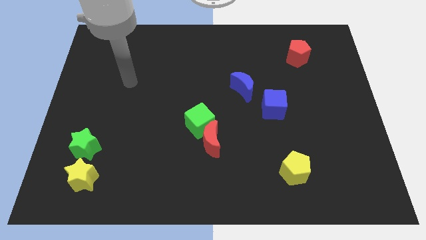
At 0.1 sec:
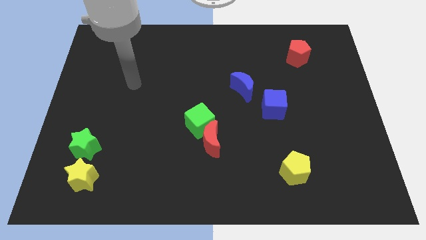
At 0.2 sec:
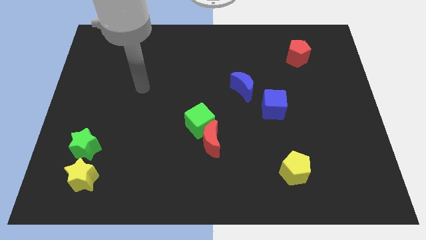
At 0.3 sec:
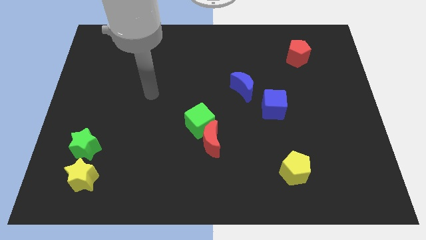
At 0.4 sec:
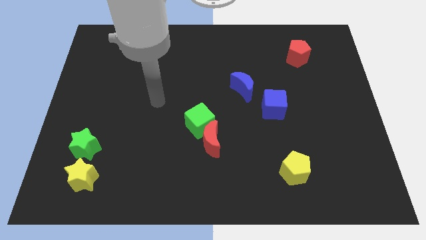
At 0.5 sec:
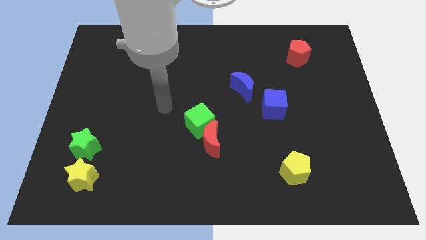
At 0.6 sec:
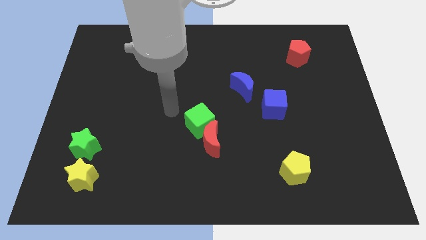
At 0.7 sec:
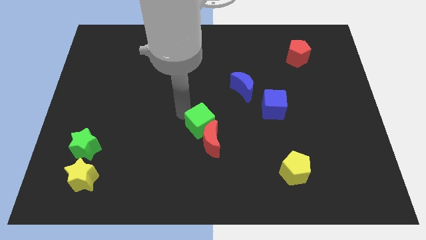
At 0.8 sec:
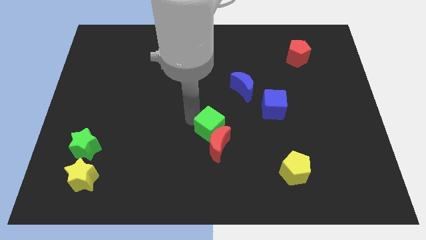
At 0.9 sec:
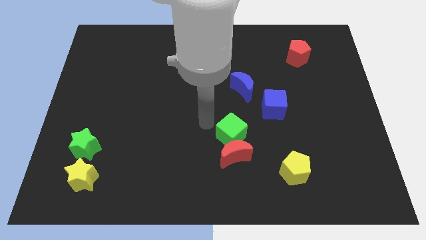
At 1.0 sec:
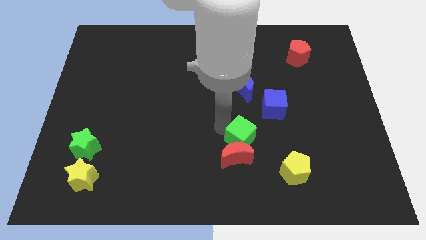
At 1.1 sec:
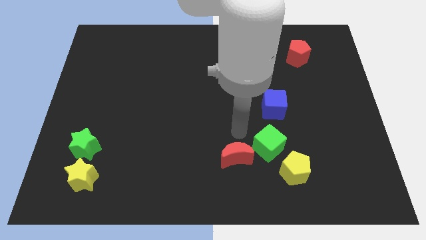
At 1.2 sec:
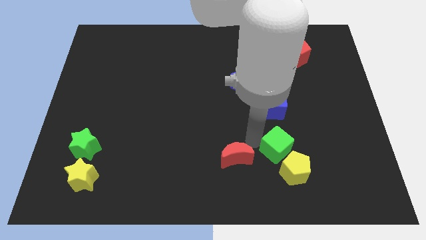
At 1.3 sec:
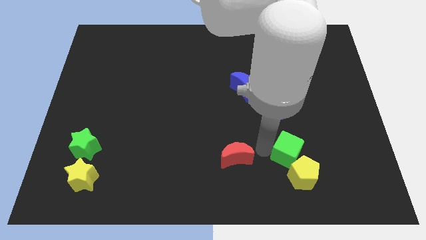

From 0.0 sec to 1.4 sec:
separate the red moon from the green cube

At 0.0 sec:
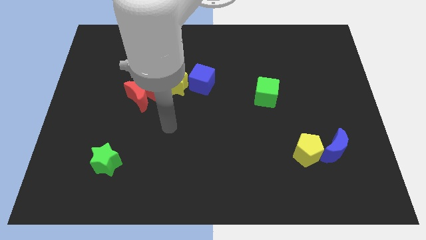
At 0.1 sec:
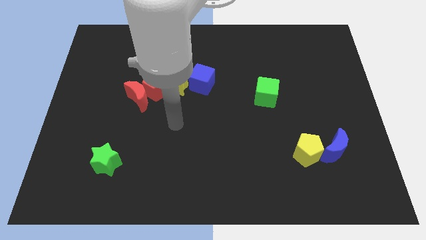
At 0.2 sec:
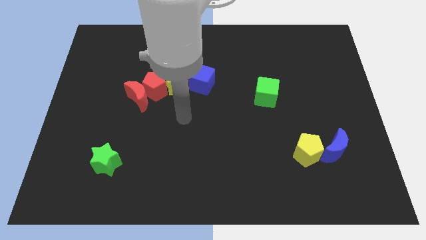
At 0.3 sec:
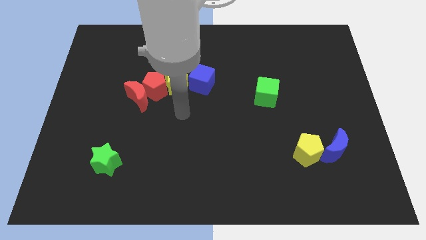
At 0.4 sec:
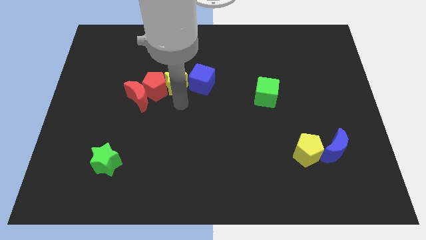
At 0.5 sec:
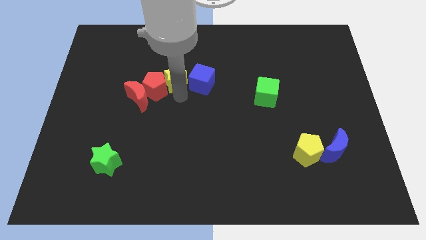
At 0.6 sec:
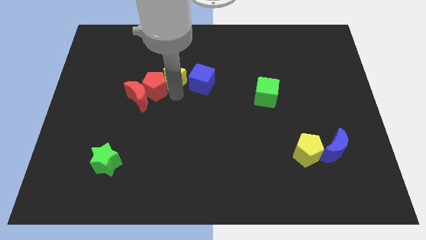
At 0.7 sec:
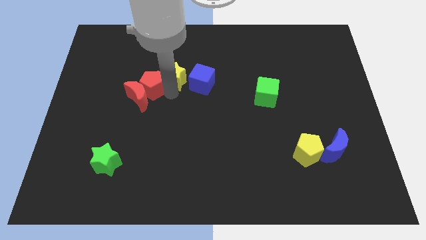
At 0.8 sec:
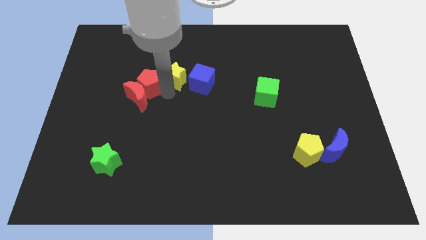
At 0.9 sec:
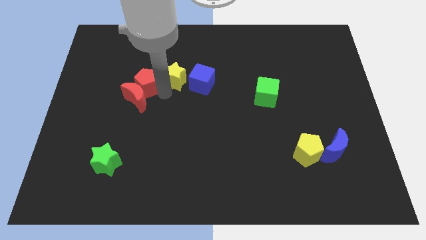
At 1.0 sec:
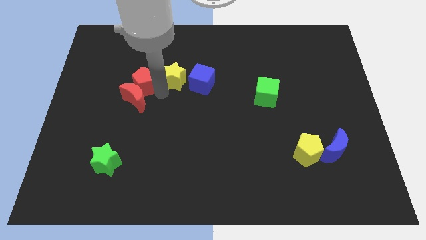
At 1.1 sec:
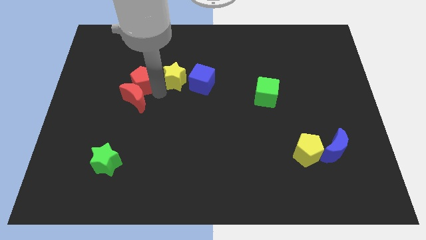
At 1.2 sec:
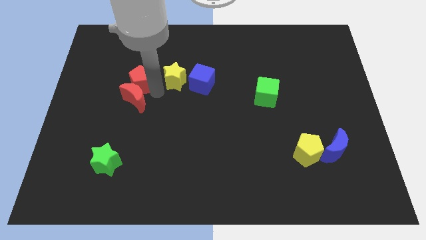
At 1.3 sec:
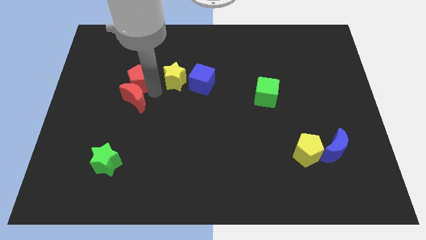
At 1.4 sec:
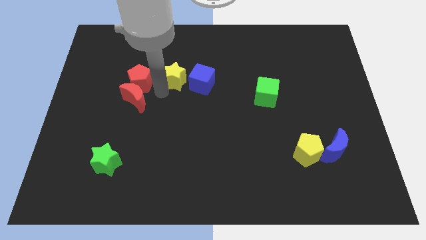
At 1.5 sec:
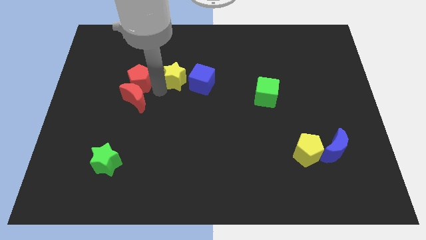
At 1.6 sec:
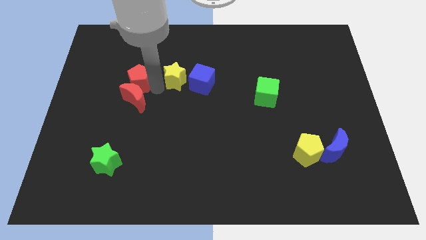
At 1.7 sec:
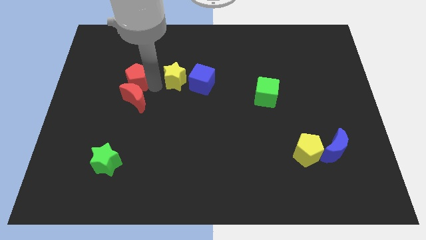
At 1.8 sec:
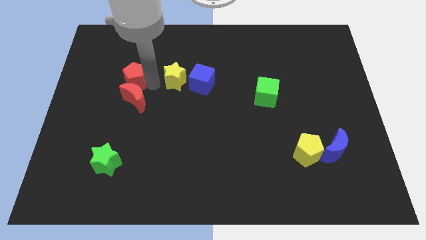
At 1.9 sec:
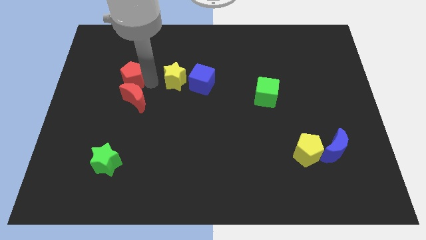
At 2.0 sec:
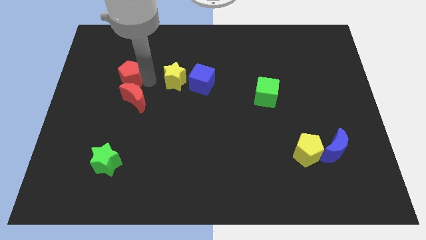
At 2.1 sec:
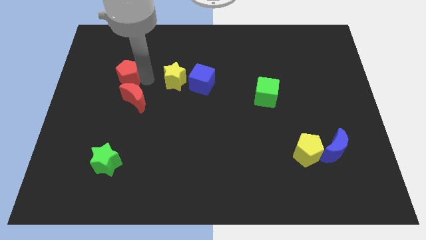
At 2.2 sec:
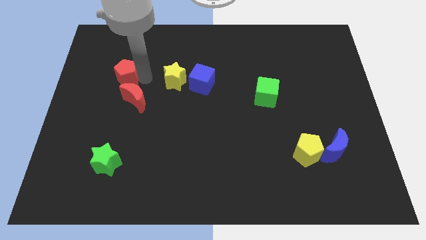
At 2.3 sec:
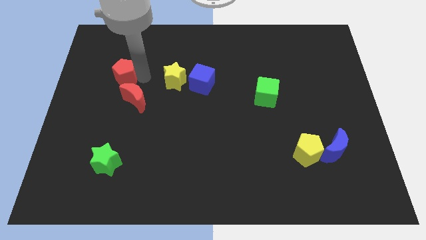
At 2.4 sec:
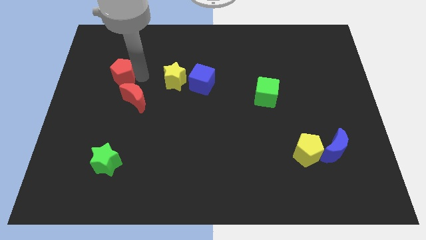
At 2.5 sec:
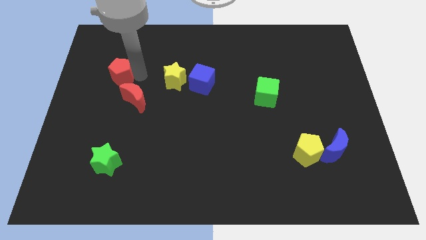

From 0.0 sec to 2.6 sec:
pull the red pentagon apart from the red moon and yellow star

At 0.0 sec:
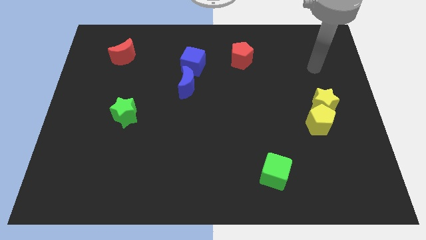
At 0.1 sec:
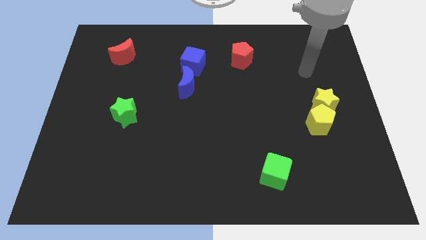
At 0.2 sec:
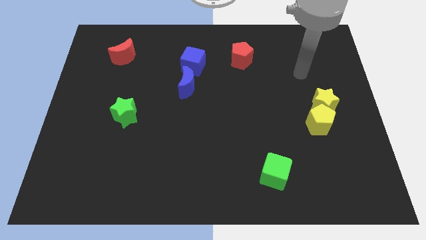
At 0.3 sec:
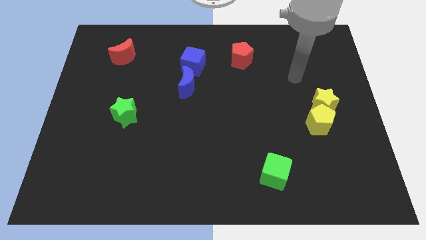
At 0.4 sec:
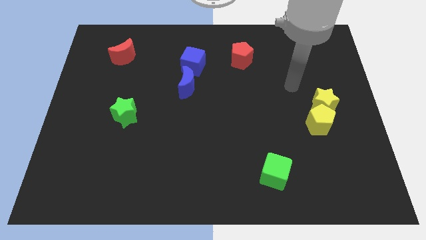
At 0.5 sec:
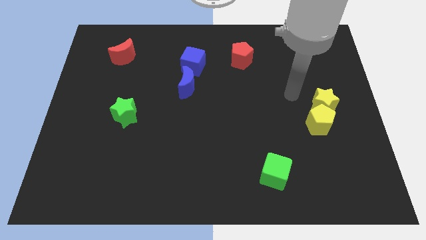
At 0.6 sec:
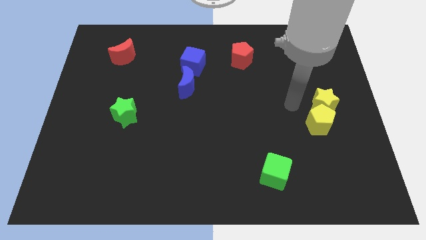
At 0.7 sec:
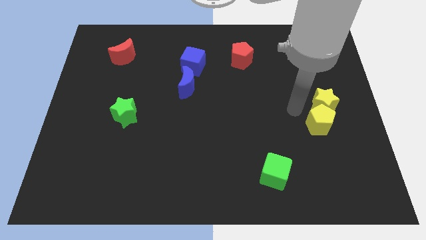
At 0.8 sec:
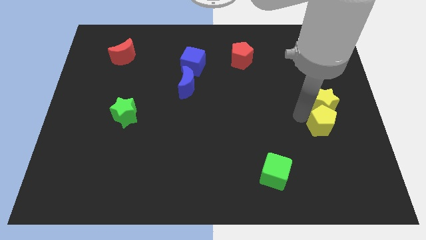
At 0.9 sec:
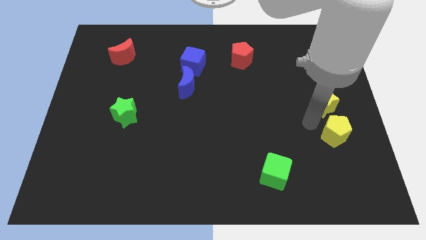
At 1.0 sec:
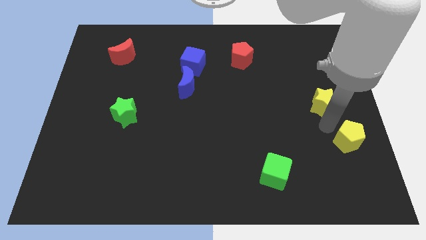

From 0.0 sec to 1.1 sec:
separate the yellow star from the yellow pentagon

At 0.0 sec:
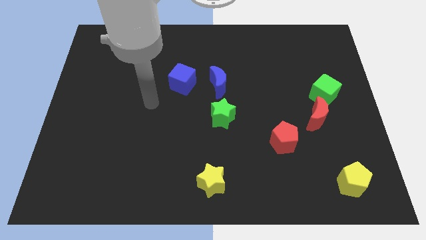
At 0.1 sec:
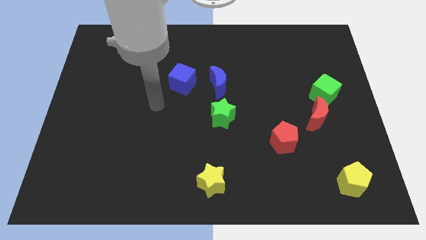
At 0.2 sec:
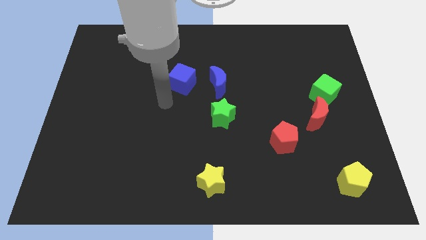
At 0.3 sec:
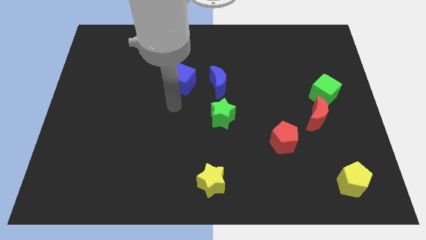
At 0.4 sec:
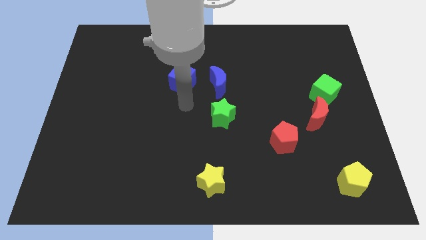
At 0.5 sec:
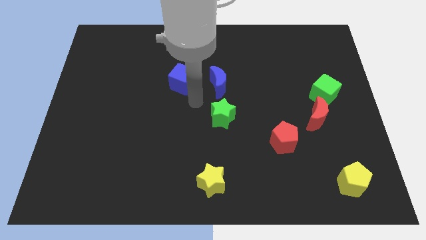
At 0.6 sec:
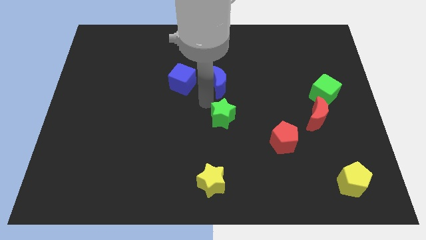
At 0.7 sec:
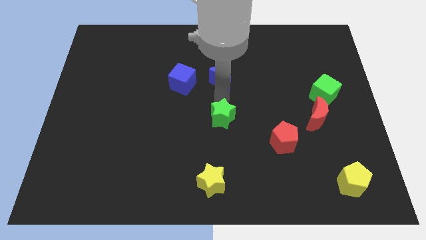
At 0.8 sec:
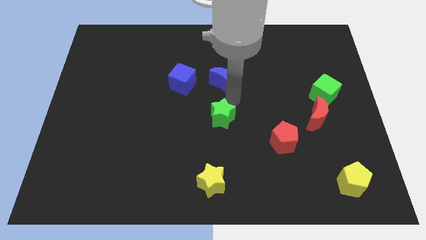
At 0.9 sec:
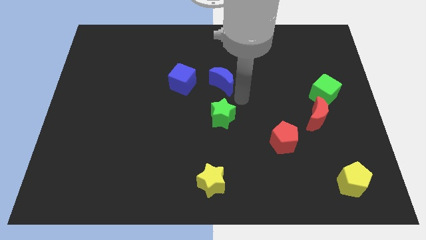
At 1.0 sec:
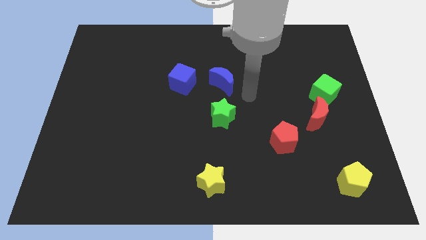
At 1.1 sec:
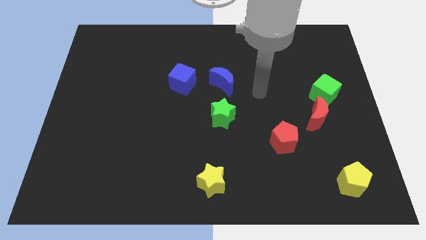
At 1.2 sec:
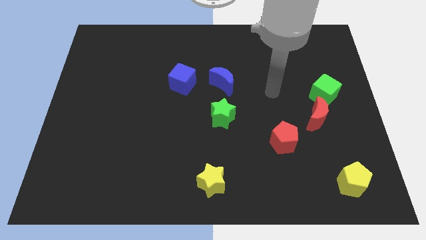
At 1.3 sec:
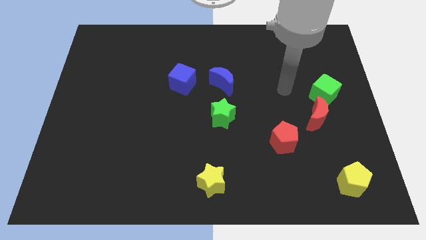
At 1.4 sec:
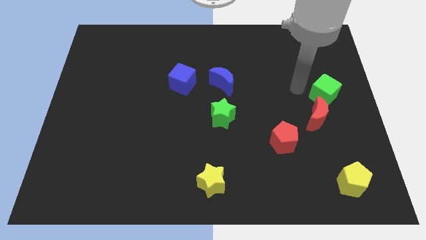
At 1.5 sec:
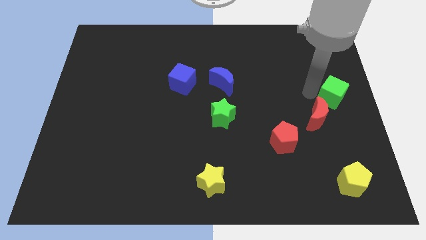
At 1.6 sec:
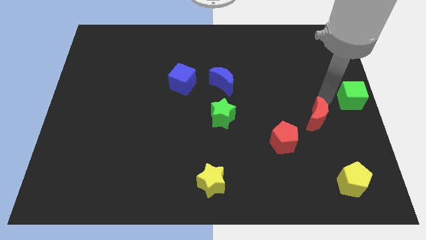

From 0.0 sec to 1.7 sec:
move the red moon away from the green cube

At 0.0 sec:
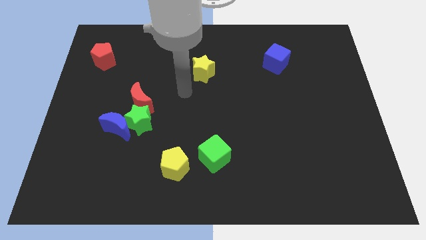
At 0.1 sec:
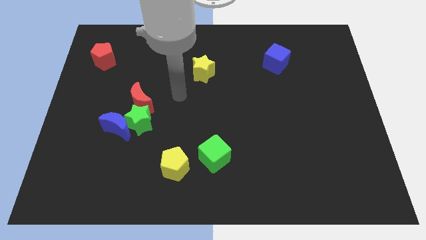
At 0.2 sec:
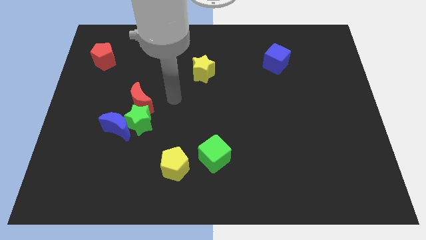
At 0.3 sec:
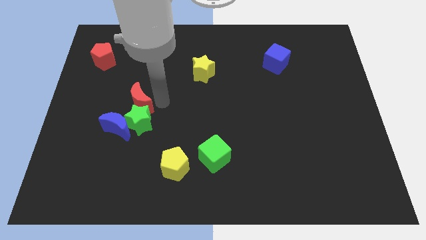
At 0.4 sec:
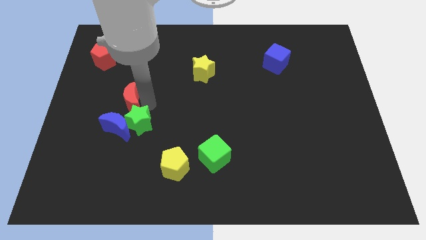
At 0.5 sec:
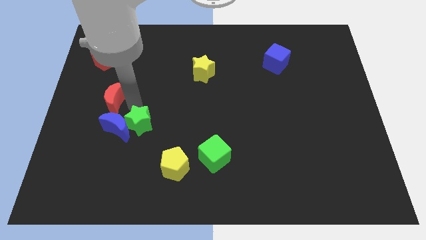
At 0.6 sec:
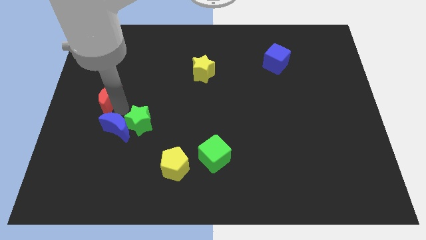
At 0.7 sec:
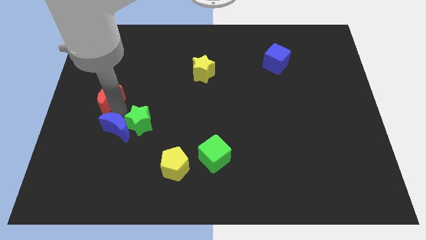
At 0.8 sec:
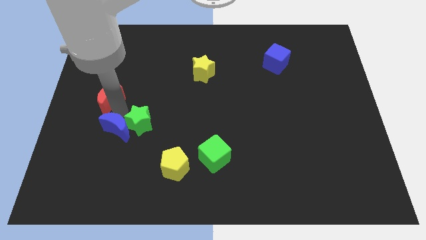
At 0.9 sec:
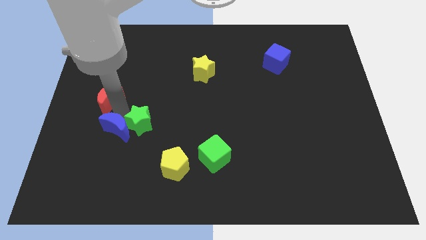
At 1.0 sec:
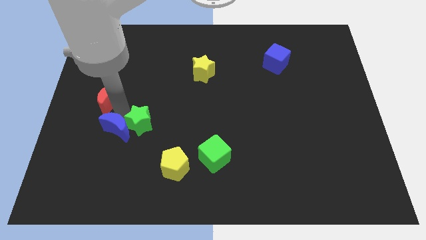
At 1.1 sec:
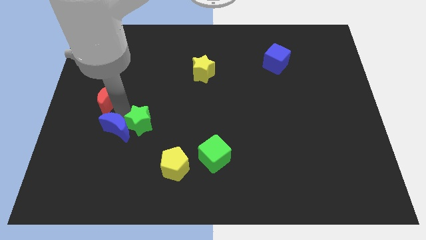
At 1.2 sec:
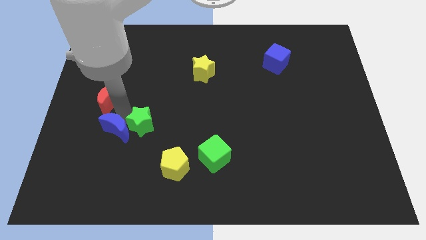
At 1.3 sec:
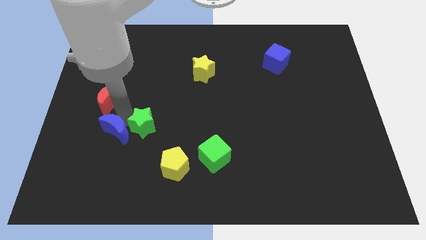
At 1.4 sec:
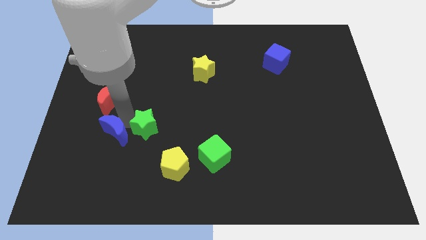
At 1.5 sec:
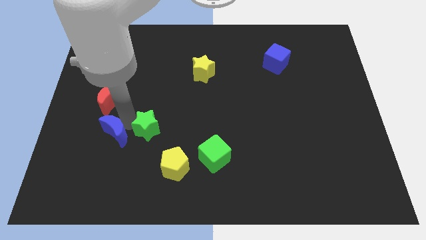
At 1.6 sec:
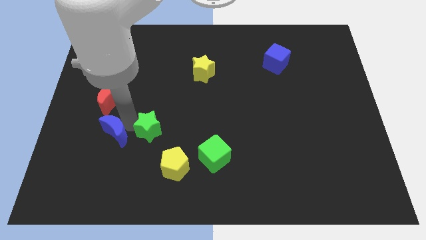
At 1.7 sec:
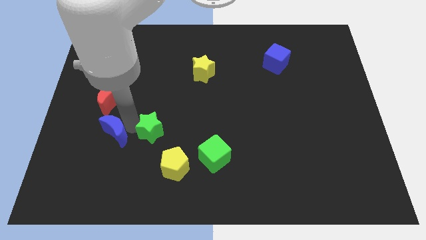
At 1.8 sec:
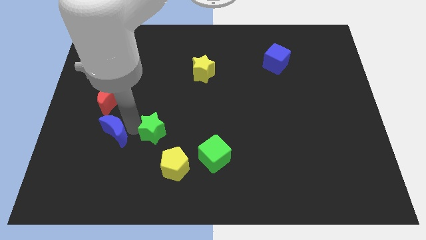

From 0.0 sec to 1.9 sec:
pull the green star apart from the blue moon and red moon

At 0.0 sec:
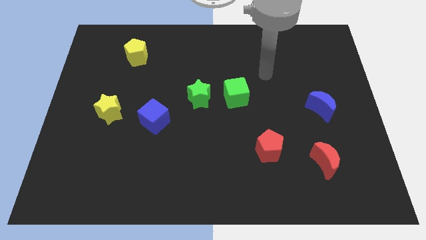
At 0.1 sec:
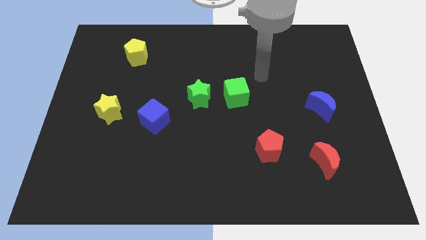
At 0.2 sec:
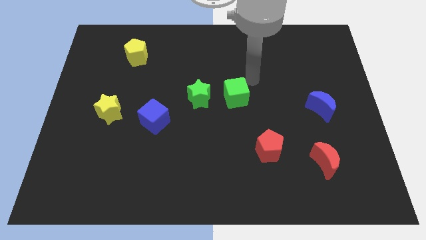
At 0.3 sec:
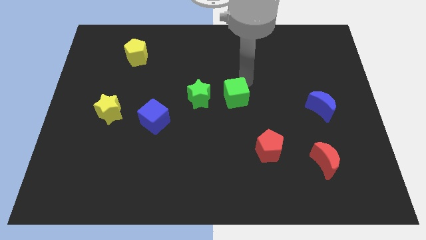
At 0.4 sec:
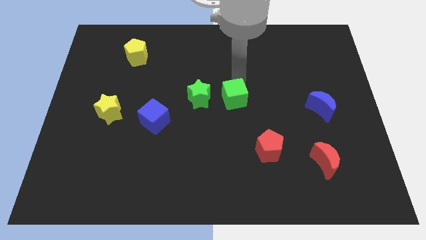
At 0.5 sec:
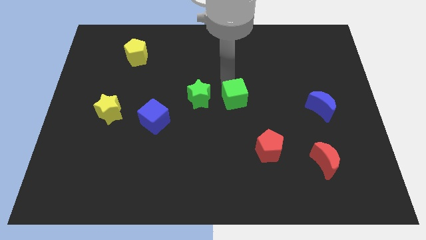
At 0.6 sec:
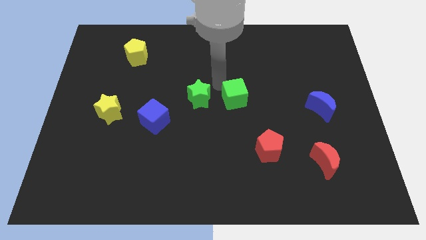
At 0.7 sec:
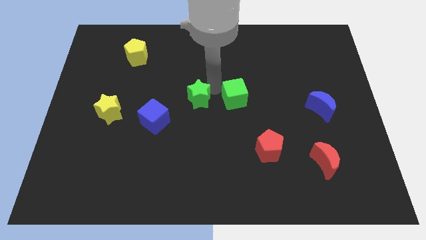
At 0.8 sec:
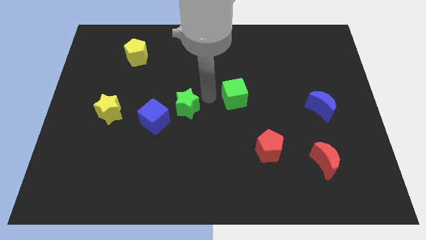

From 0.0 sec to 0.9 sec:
pull the green cube apart from the green star
